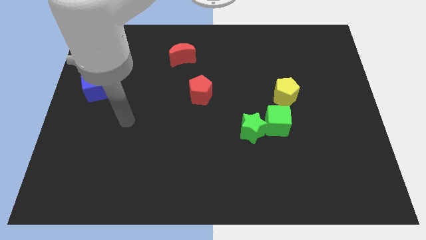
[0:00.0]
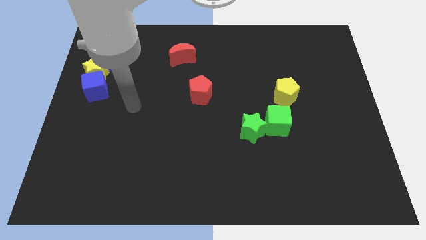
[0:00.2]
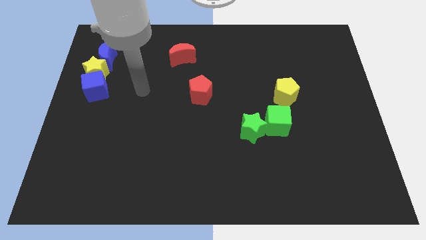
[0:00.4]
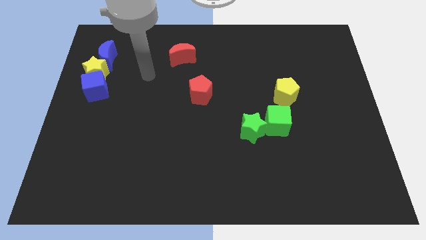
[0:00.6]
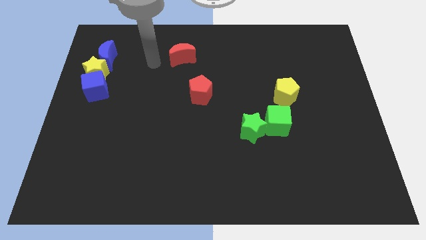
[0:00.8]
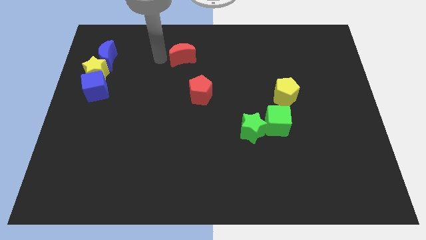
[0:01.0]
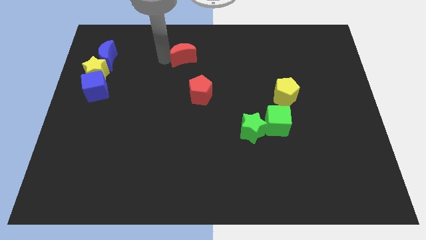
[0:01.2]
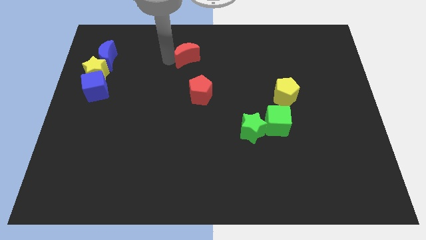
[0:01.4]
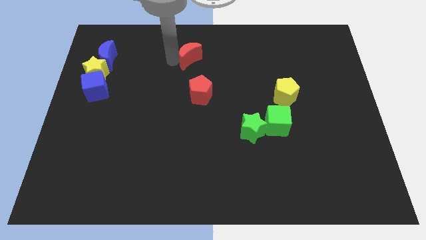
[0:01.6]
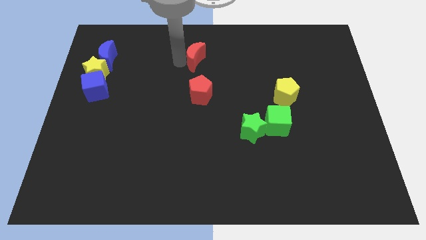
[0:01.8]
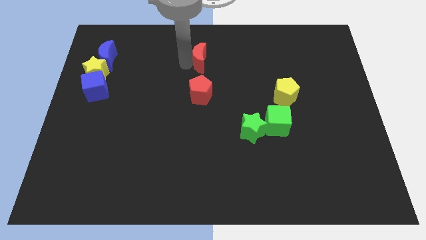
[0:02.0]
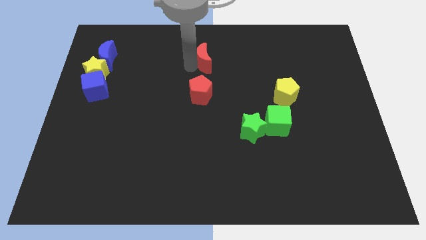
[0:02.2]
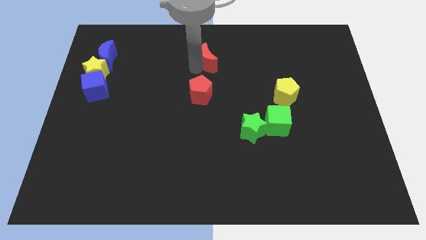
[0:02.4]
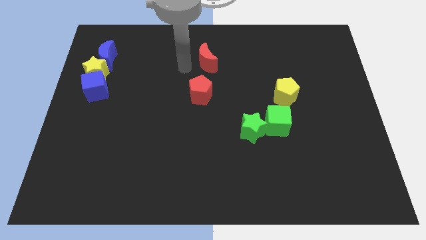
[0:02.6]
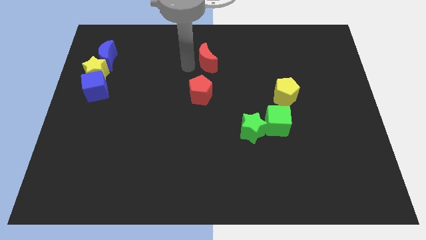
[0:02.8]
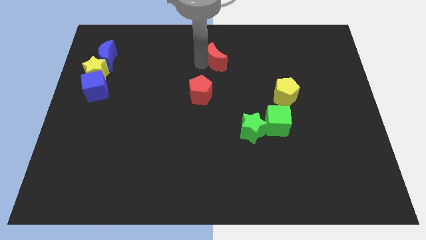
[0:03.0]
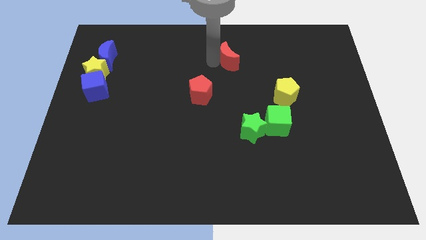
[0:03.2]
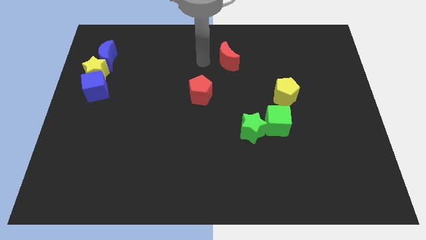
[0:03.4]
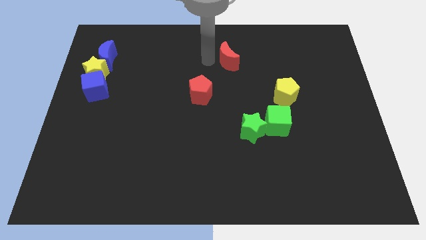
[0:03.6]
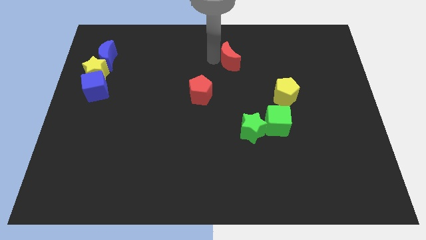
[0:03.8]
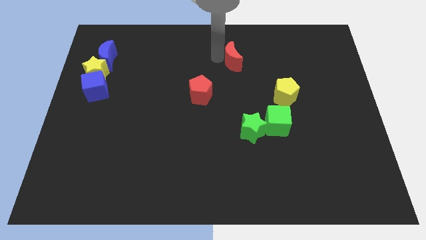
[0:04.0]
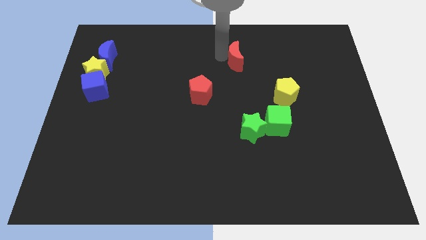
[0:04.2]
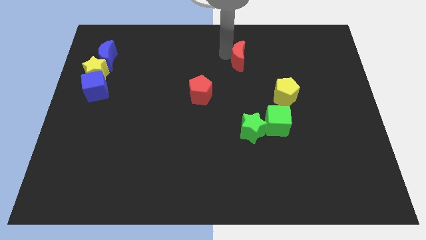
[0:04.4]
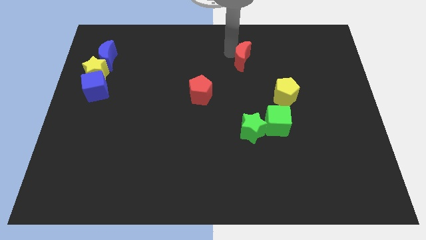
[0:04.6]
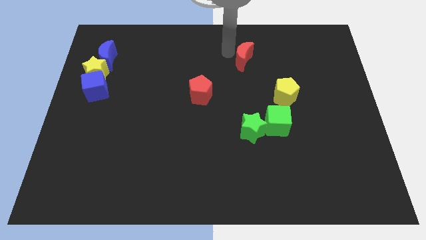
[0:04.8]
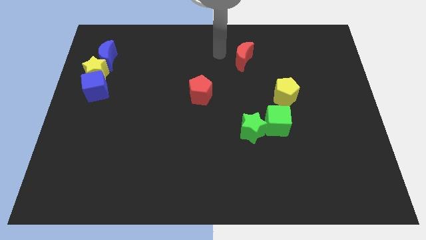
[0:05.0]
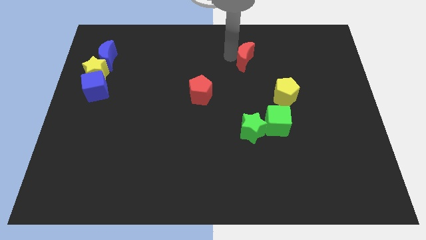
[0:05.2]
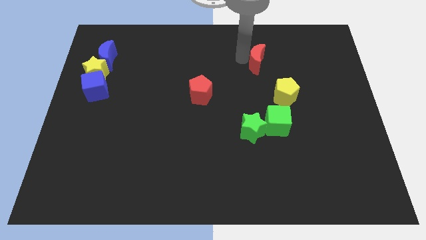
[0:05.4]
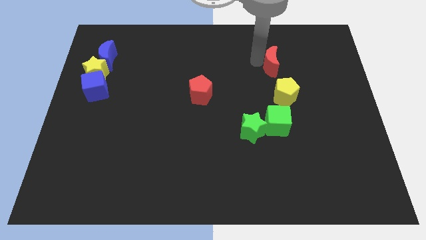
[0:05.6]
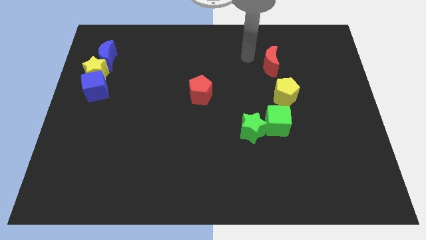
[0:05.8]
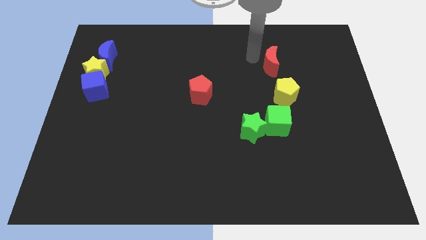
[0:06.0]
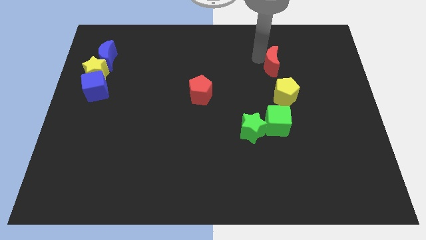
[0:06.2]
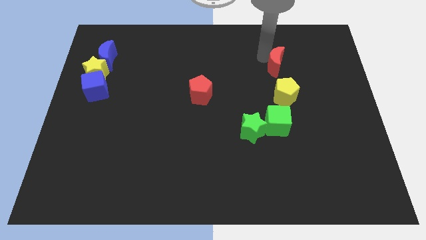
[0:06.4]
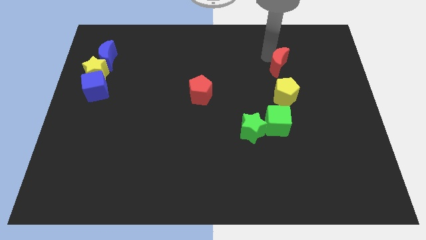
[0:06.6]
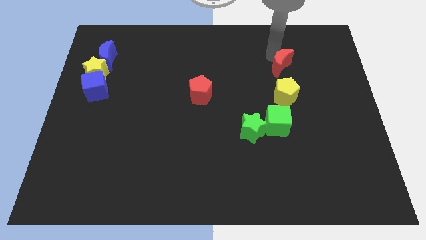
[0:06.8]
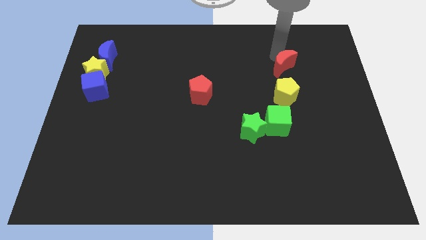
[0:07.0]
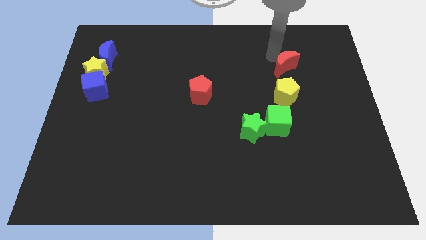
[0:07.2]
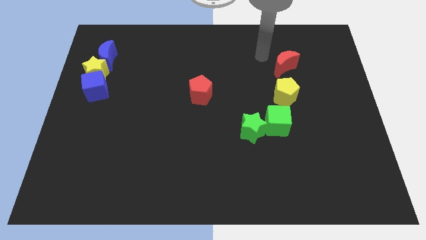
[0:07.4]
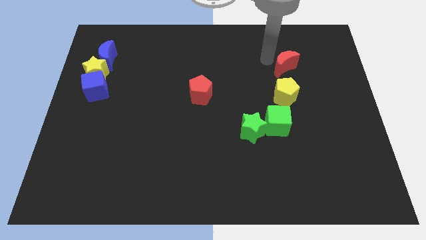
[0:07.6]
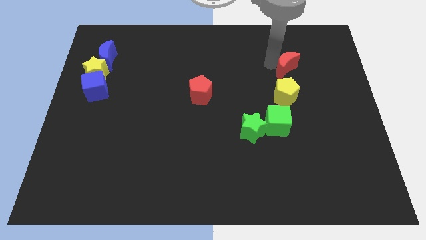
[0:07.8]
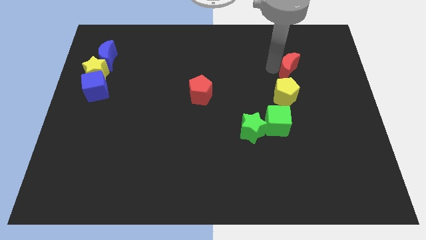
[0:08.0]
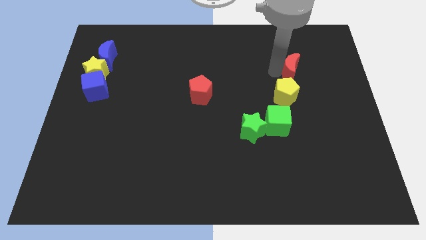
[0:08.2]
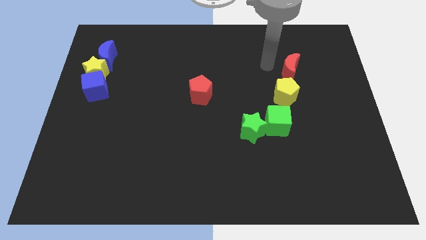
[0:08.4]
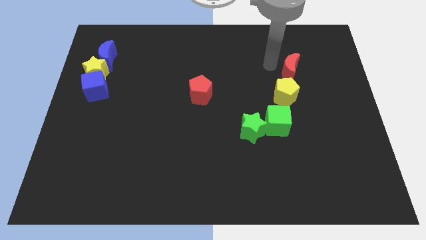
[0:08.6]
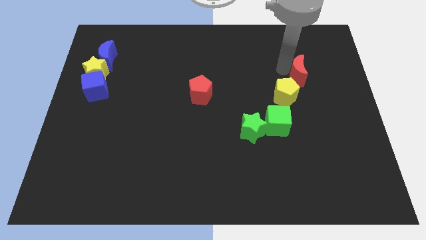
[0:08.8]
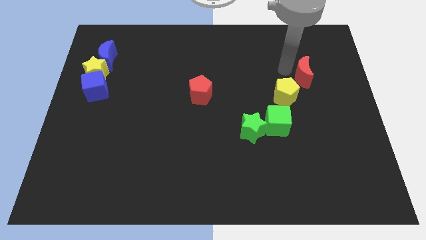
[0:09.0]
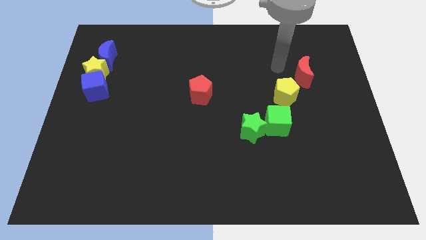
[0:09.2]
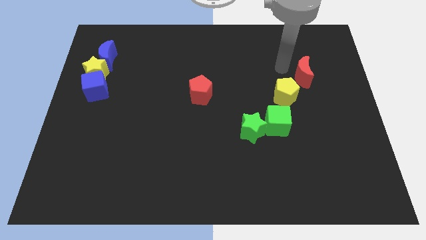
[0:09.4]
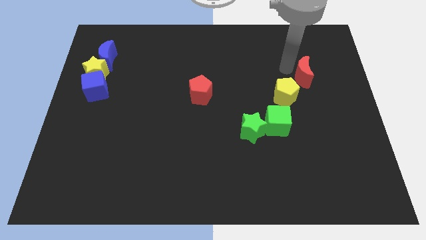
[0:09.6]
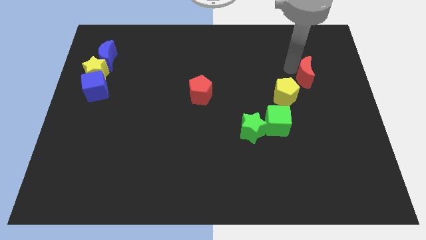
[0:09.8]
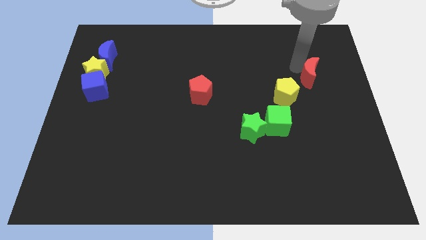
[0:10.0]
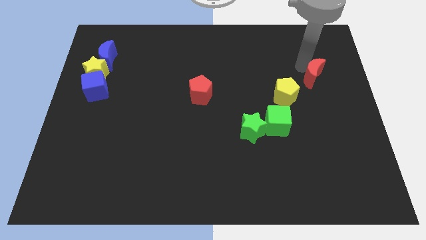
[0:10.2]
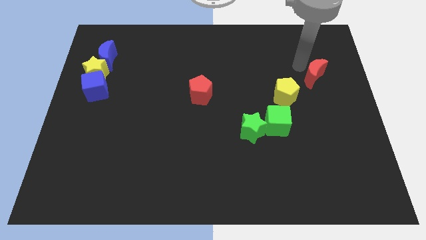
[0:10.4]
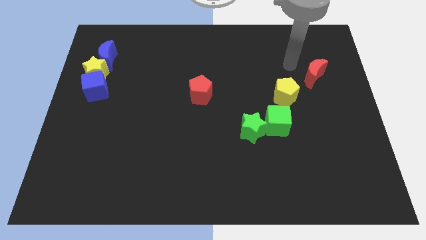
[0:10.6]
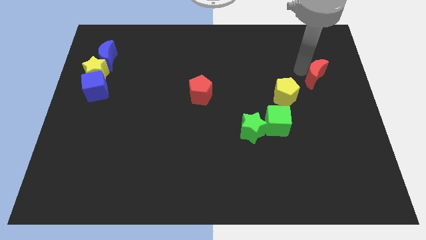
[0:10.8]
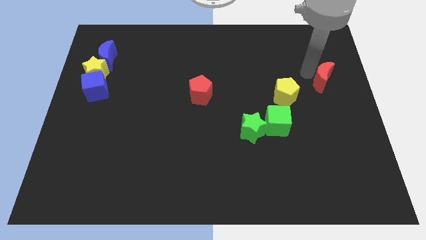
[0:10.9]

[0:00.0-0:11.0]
put the red moon to the center right

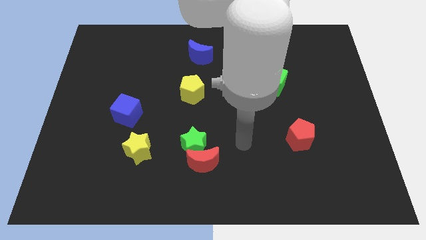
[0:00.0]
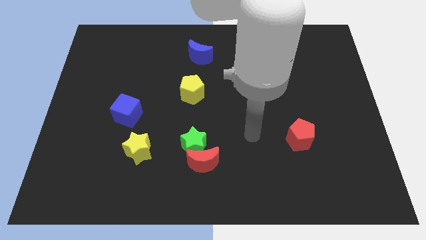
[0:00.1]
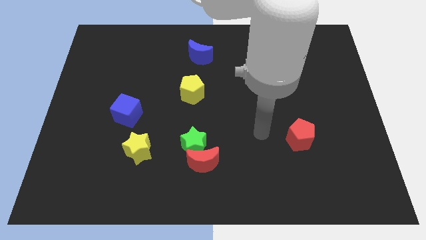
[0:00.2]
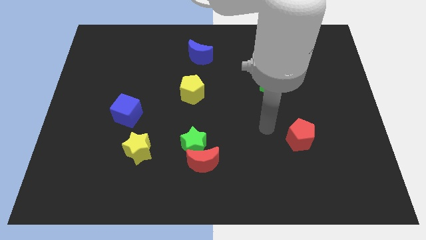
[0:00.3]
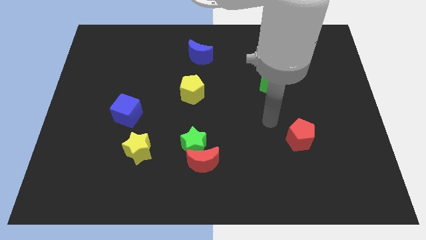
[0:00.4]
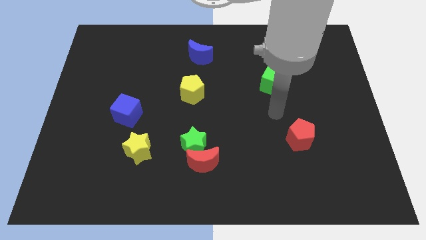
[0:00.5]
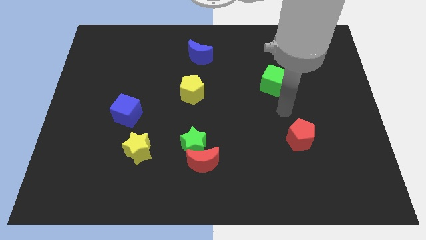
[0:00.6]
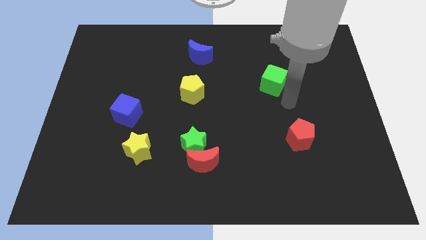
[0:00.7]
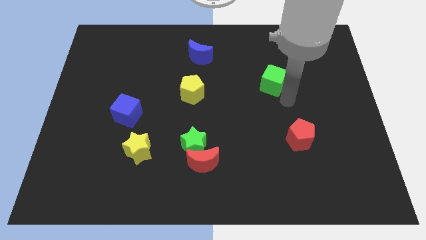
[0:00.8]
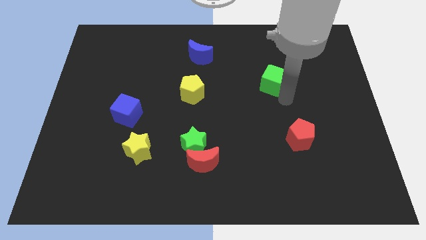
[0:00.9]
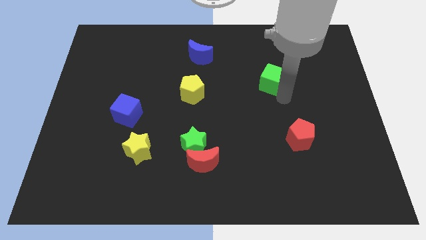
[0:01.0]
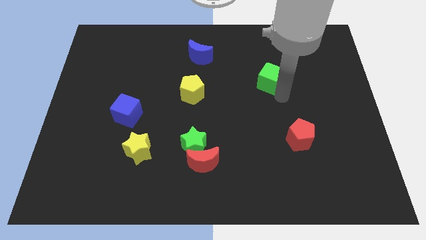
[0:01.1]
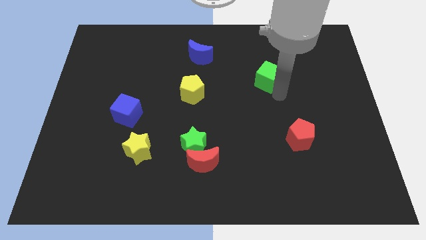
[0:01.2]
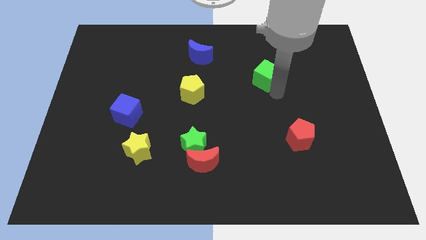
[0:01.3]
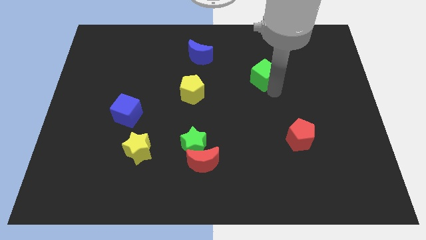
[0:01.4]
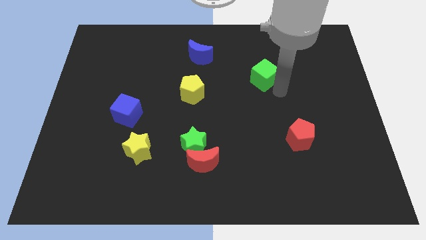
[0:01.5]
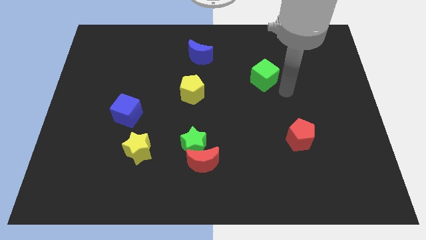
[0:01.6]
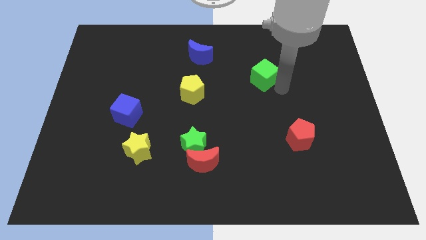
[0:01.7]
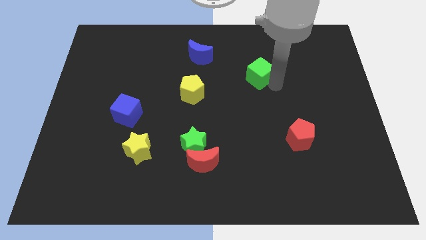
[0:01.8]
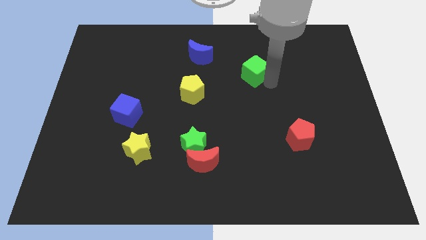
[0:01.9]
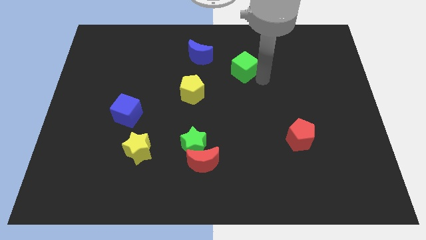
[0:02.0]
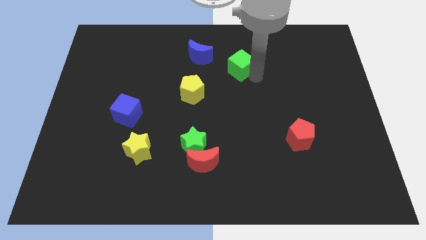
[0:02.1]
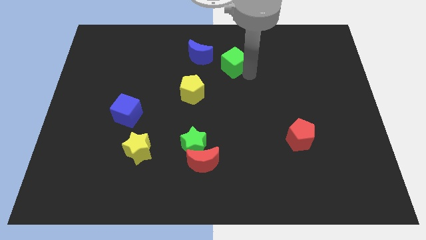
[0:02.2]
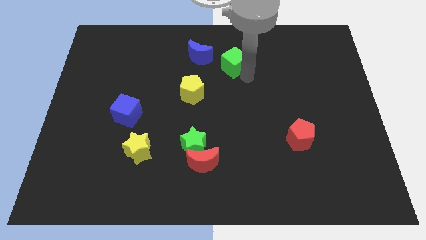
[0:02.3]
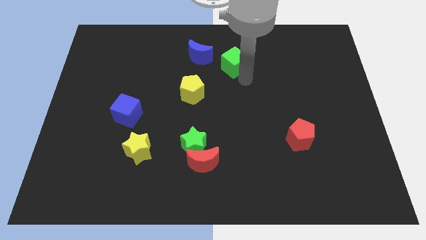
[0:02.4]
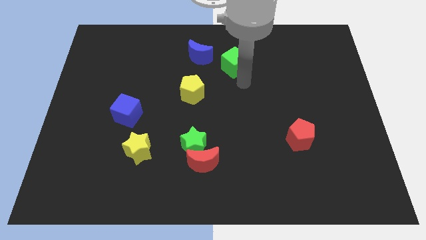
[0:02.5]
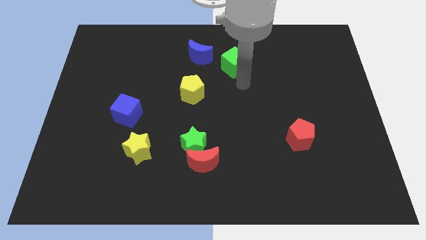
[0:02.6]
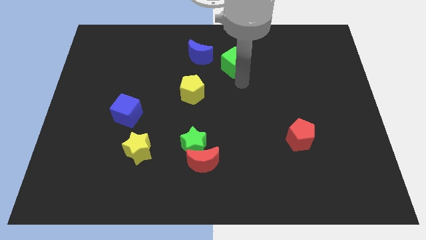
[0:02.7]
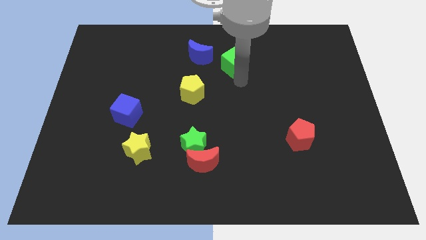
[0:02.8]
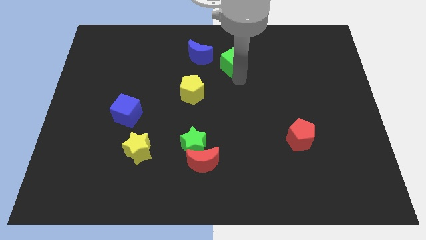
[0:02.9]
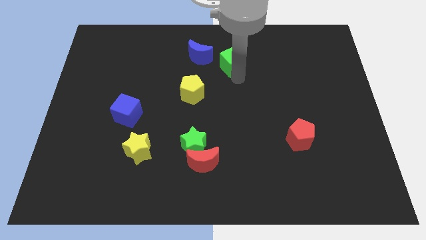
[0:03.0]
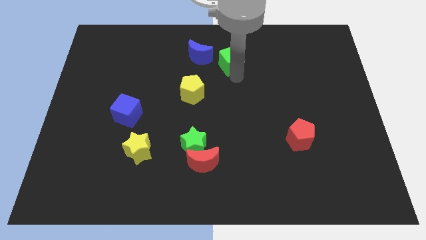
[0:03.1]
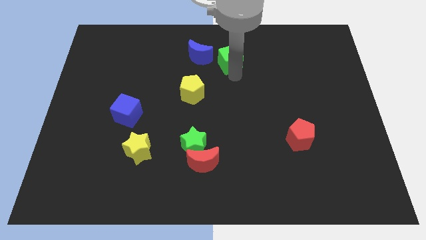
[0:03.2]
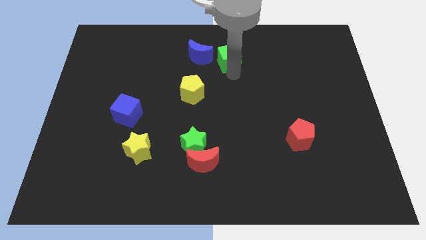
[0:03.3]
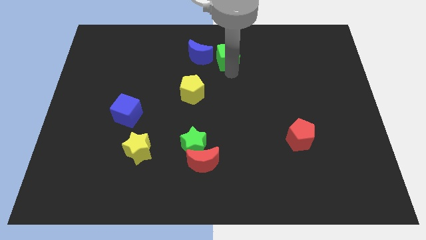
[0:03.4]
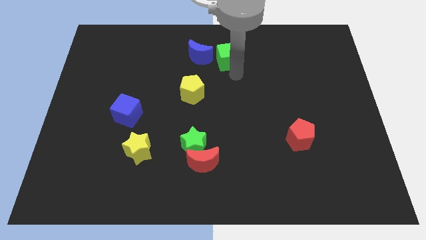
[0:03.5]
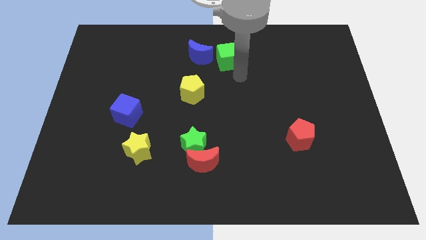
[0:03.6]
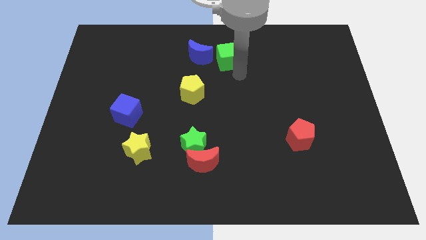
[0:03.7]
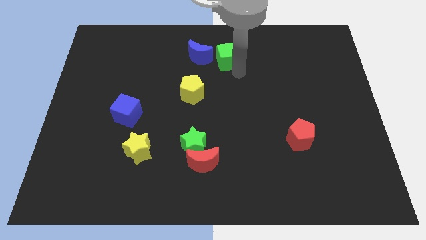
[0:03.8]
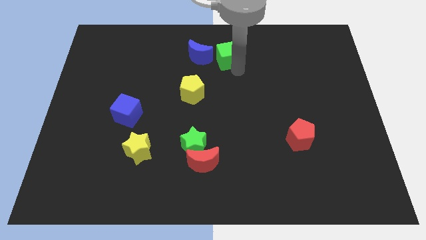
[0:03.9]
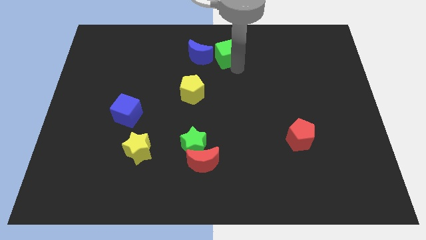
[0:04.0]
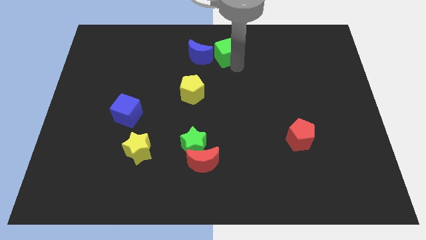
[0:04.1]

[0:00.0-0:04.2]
slide the green cube to the top side
